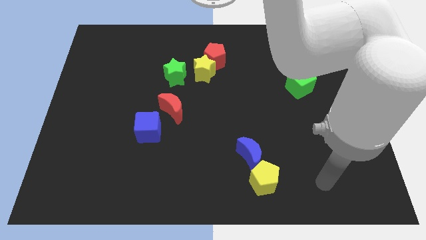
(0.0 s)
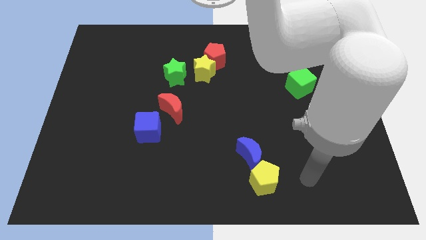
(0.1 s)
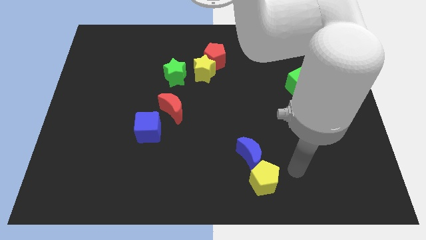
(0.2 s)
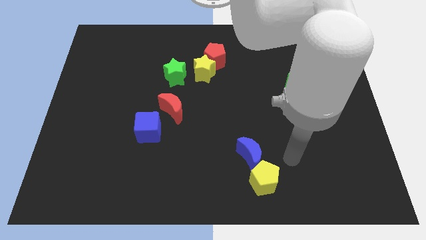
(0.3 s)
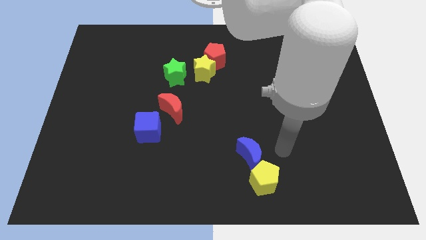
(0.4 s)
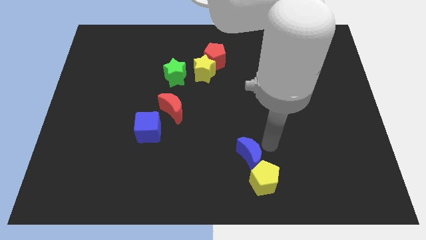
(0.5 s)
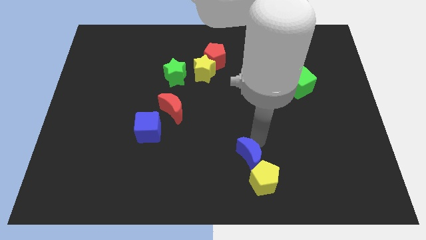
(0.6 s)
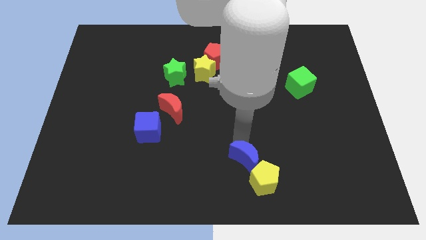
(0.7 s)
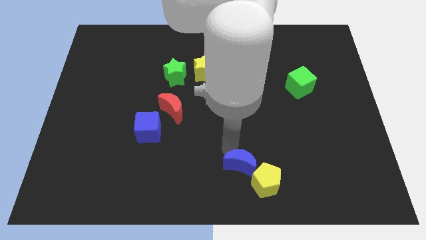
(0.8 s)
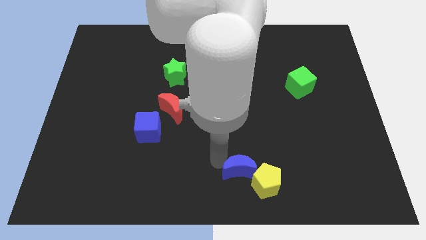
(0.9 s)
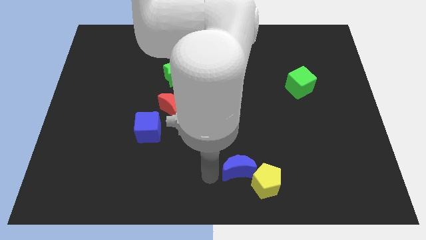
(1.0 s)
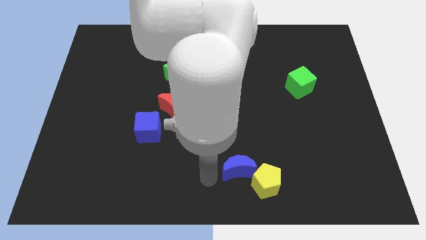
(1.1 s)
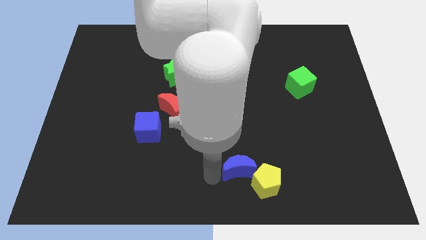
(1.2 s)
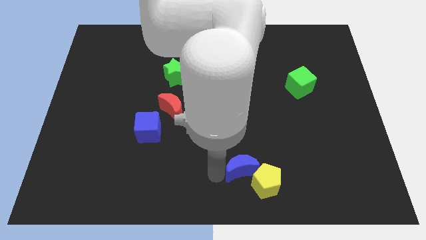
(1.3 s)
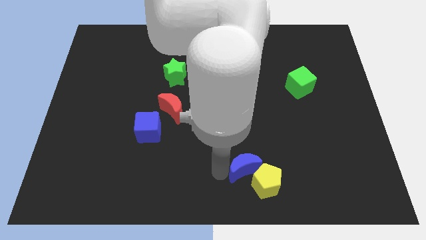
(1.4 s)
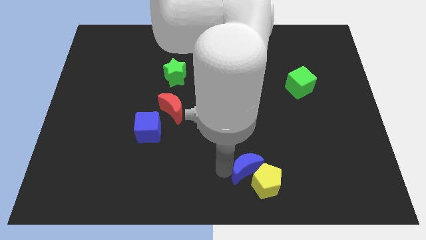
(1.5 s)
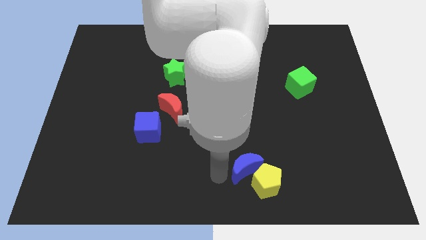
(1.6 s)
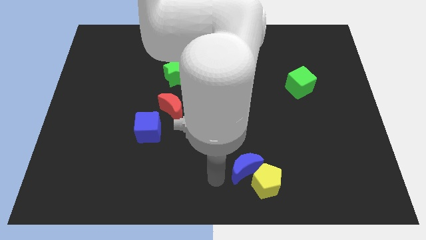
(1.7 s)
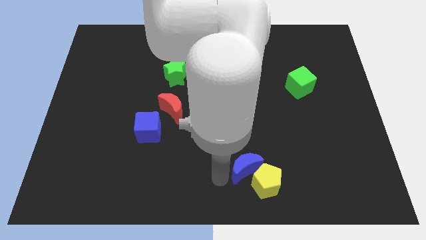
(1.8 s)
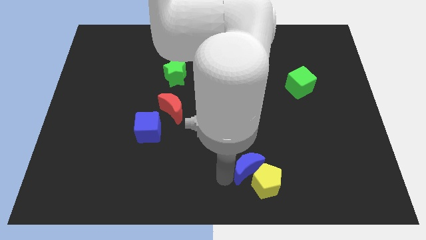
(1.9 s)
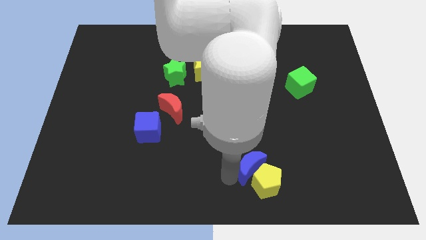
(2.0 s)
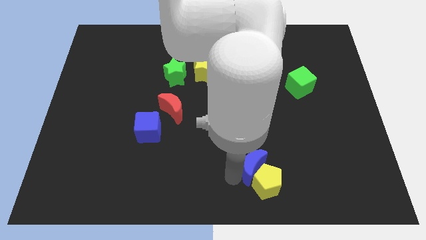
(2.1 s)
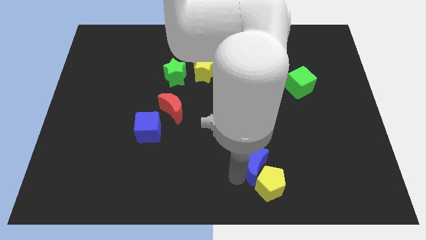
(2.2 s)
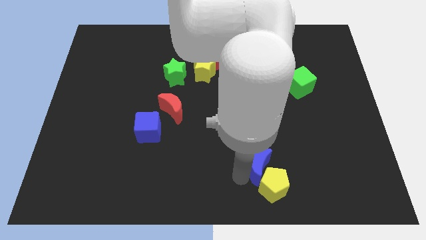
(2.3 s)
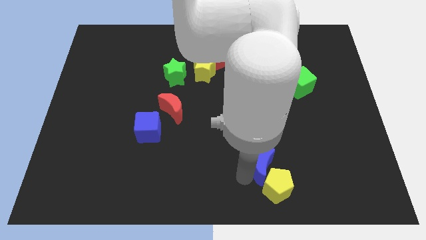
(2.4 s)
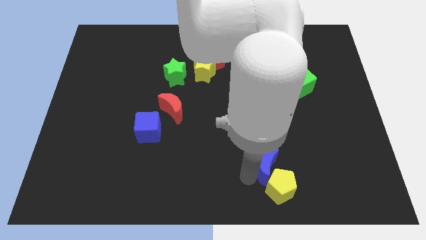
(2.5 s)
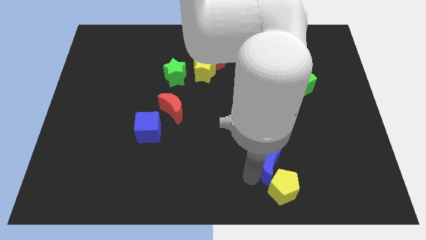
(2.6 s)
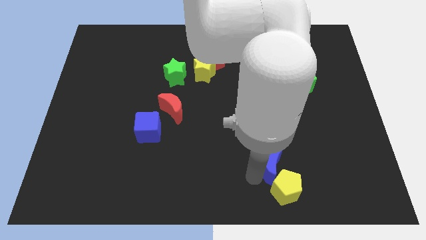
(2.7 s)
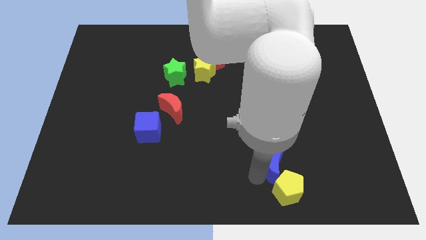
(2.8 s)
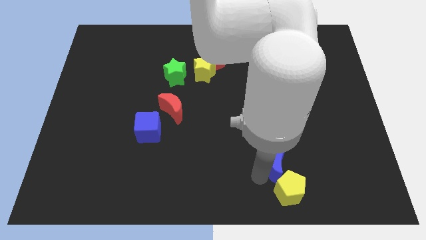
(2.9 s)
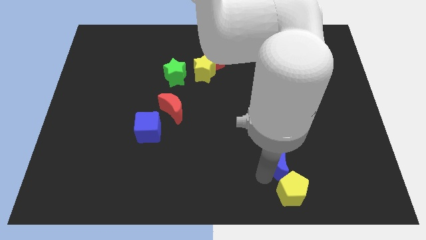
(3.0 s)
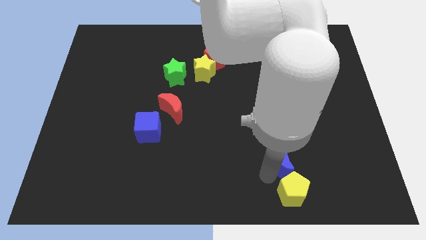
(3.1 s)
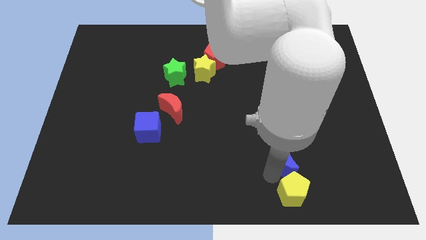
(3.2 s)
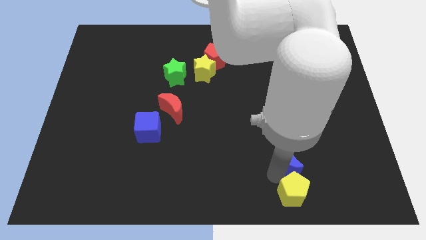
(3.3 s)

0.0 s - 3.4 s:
slide the blue moon right a little

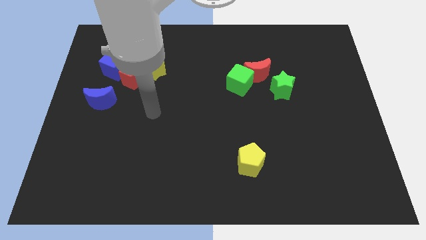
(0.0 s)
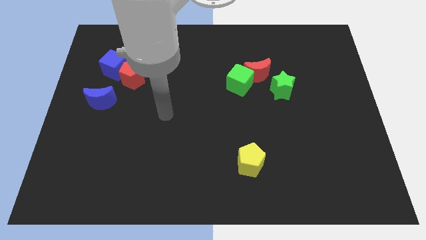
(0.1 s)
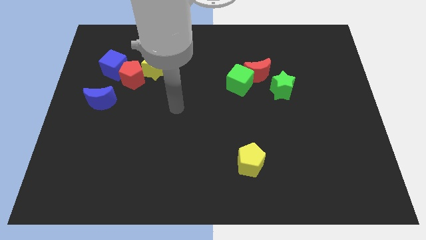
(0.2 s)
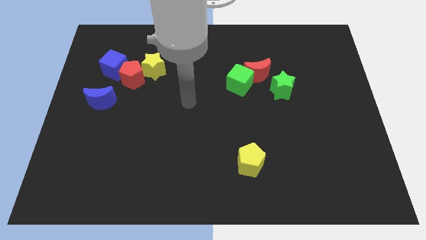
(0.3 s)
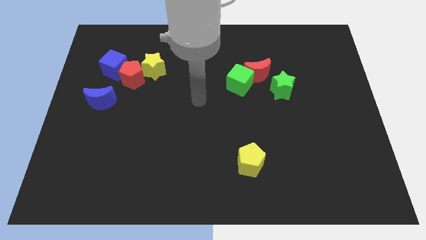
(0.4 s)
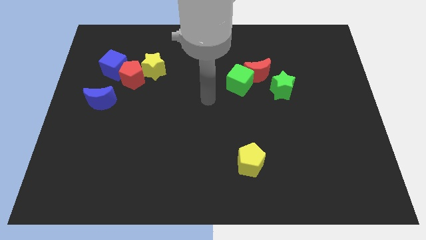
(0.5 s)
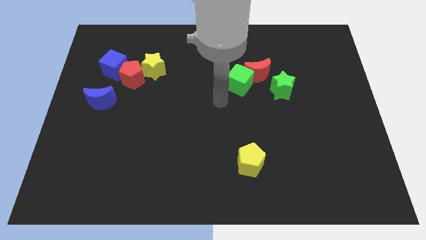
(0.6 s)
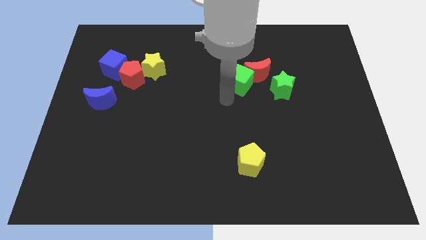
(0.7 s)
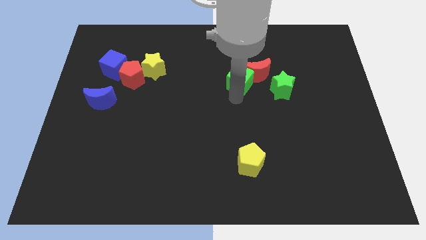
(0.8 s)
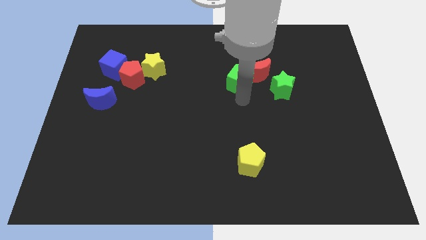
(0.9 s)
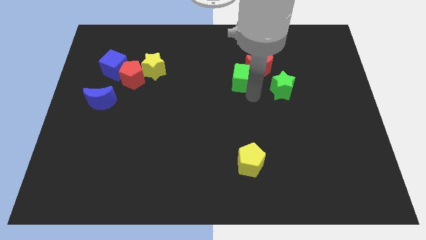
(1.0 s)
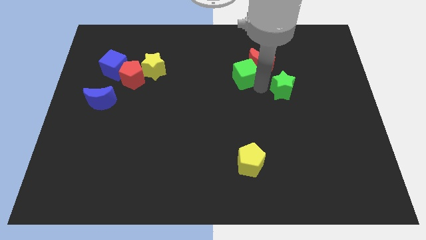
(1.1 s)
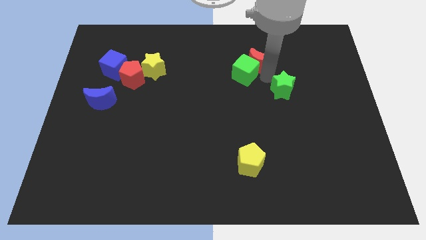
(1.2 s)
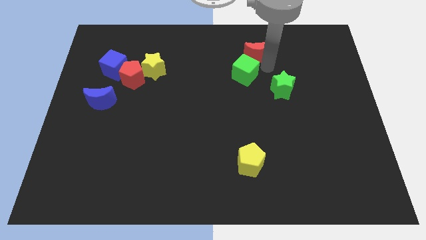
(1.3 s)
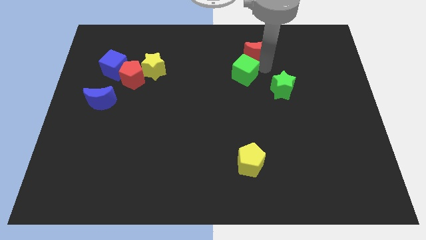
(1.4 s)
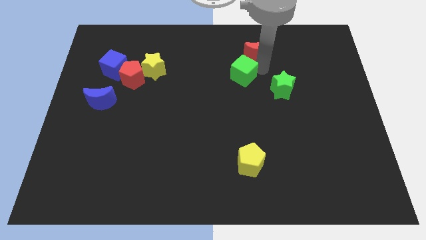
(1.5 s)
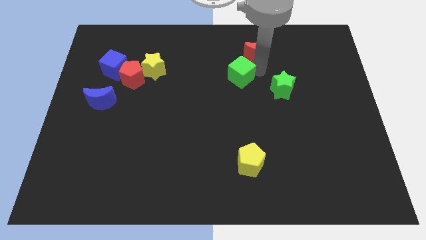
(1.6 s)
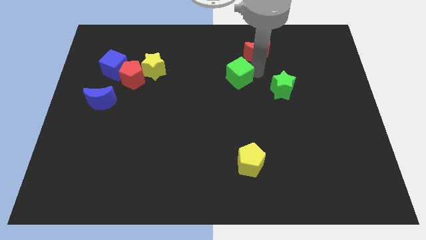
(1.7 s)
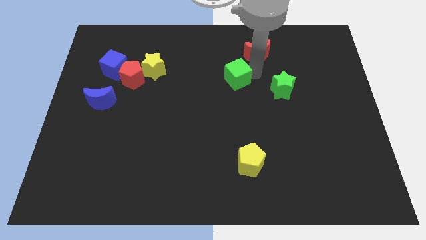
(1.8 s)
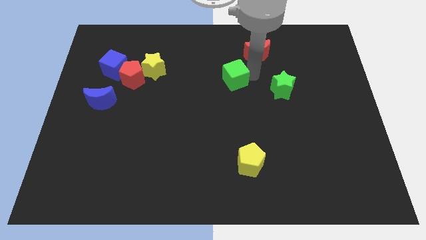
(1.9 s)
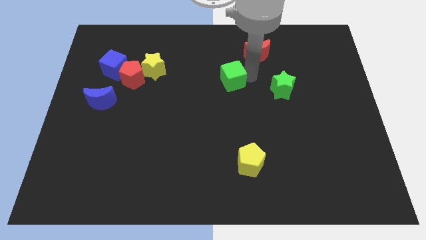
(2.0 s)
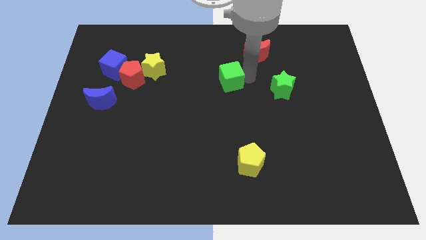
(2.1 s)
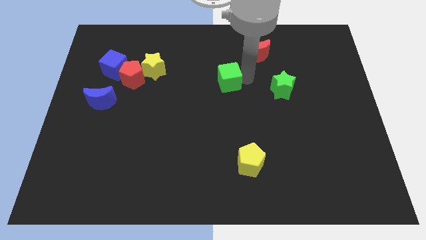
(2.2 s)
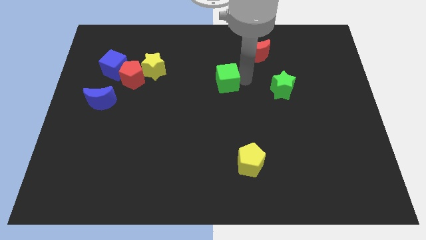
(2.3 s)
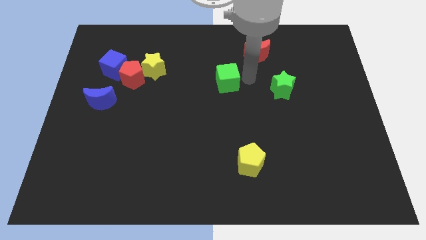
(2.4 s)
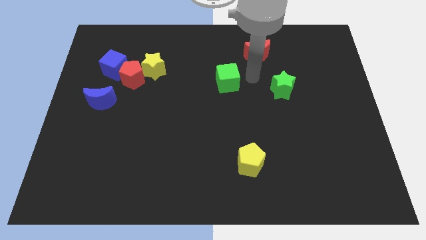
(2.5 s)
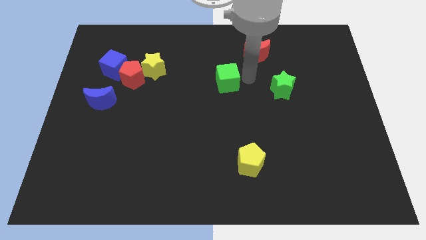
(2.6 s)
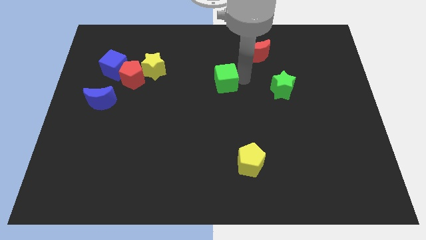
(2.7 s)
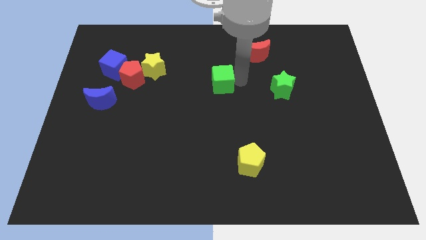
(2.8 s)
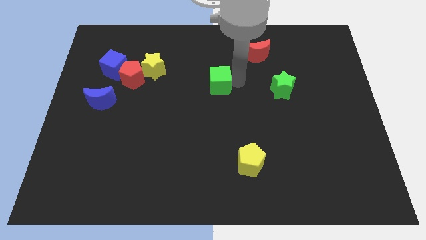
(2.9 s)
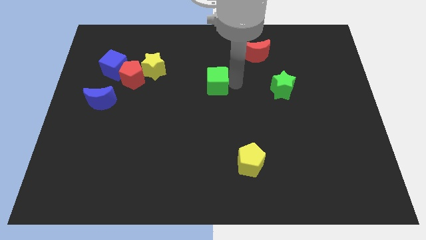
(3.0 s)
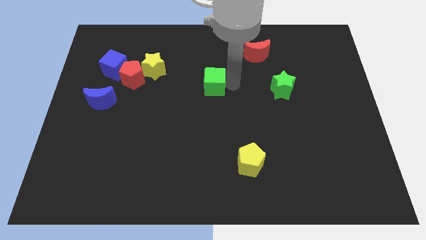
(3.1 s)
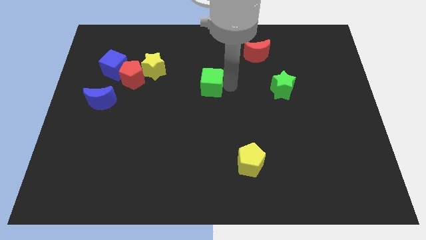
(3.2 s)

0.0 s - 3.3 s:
slide the green cube to the left a little bit

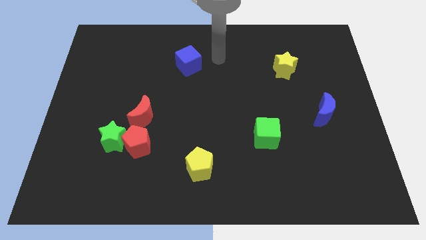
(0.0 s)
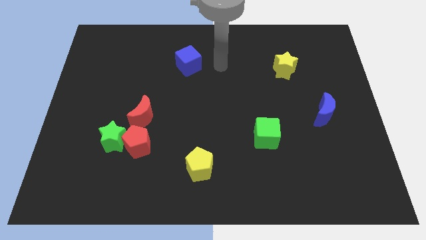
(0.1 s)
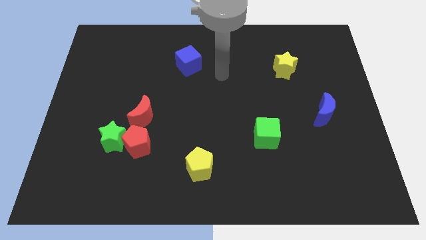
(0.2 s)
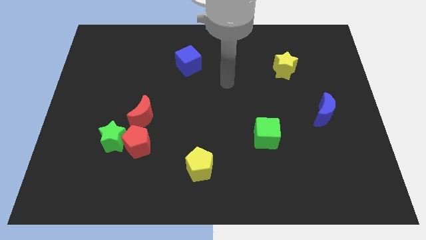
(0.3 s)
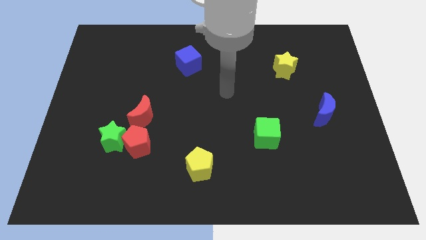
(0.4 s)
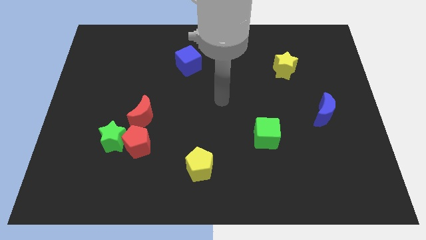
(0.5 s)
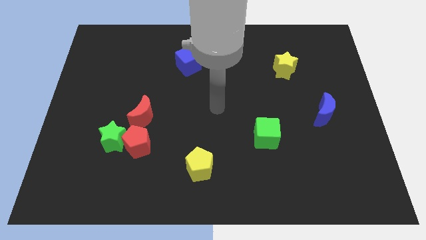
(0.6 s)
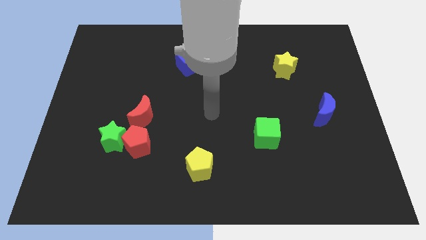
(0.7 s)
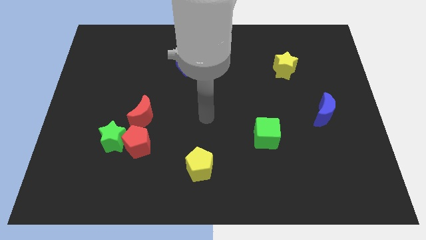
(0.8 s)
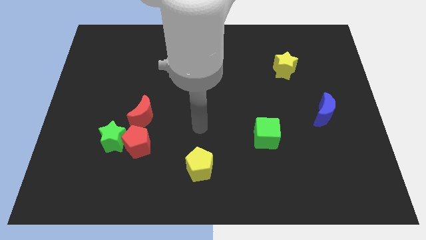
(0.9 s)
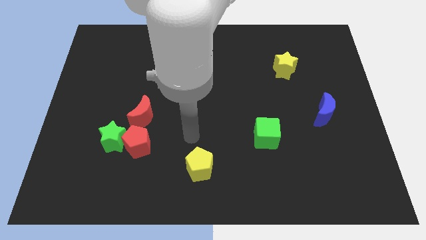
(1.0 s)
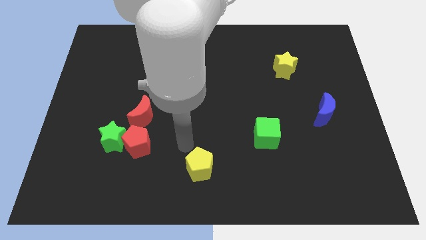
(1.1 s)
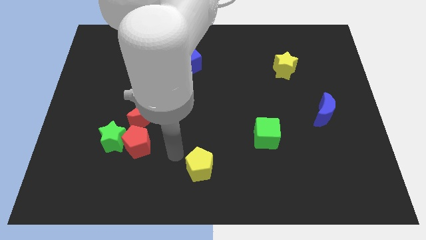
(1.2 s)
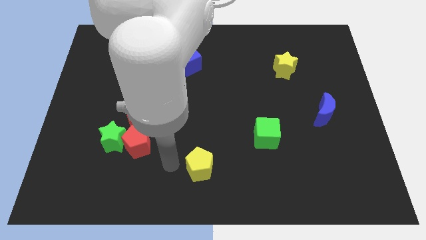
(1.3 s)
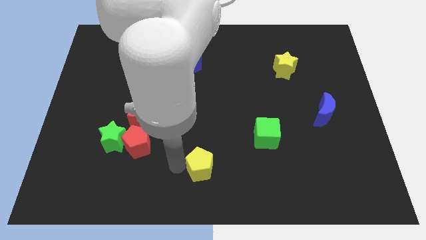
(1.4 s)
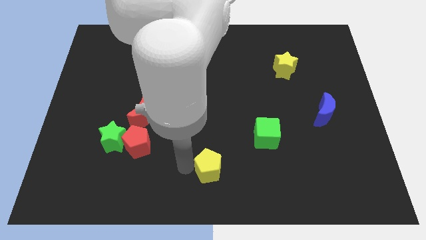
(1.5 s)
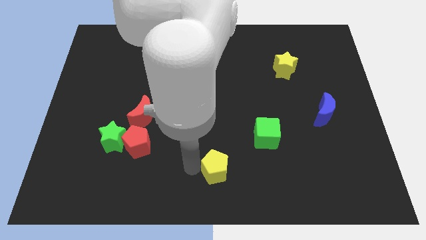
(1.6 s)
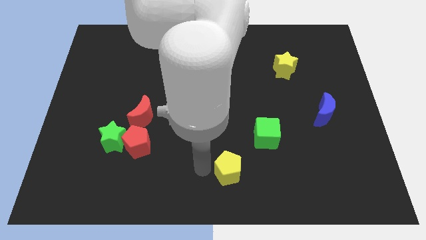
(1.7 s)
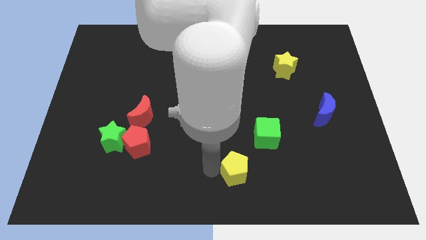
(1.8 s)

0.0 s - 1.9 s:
slightly move the yellow pentagon to the right
